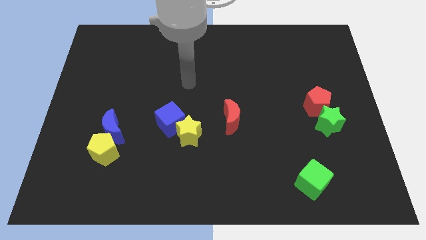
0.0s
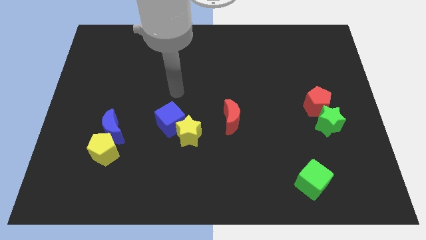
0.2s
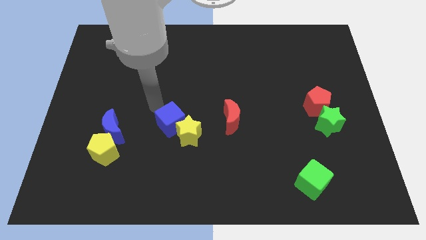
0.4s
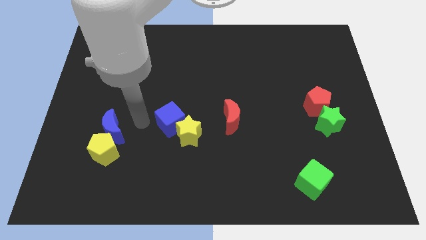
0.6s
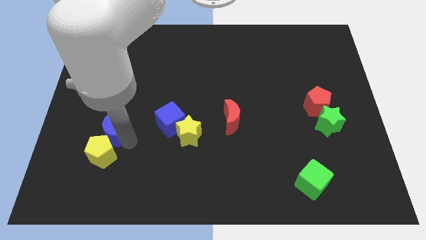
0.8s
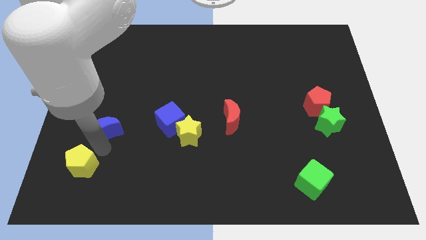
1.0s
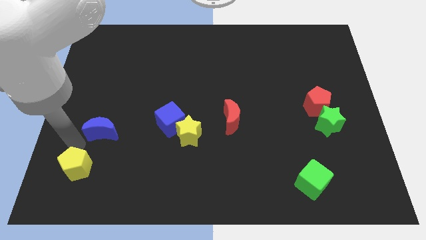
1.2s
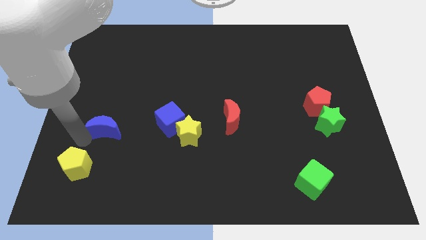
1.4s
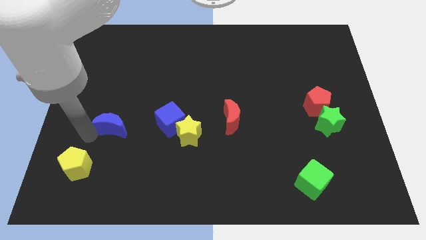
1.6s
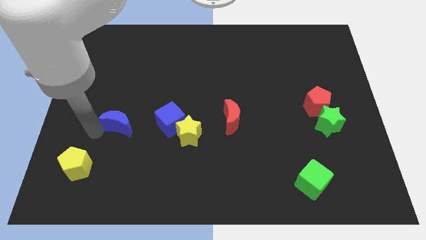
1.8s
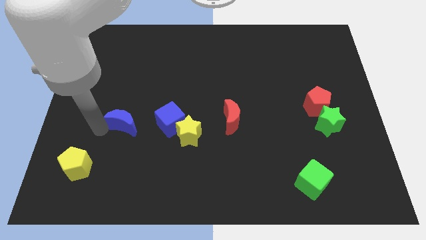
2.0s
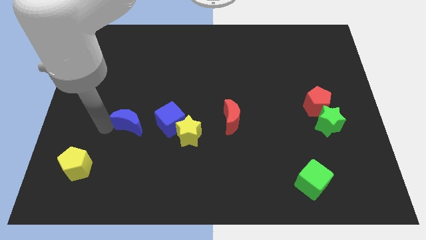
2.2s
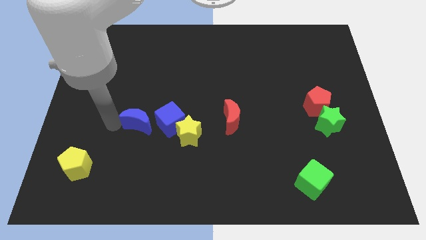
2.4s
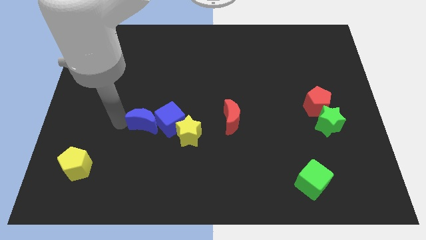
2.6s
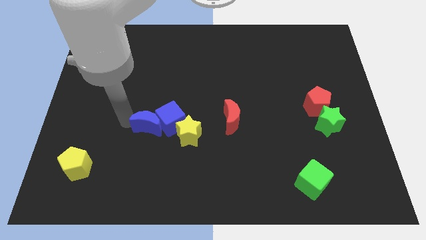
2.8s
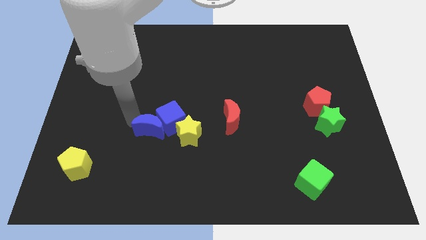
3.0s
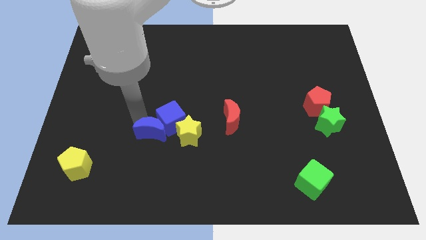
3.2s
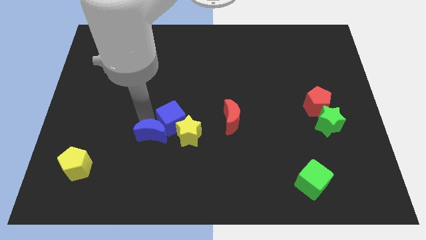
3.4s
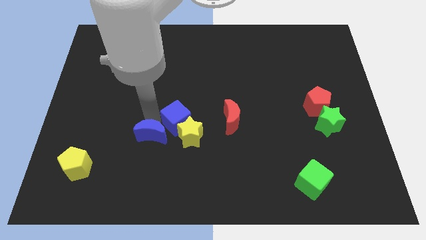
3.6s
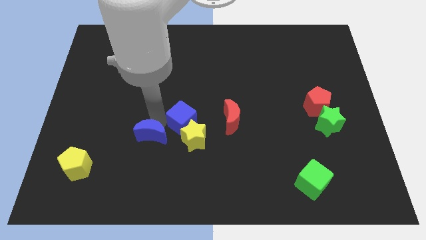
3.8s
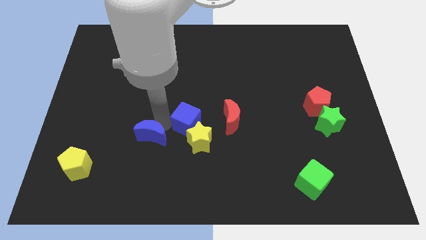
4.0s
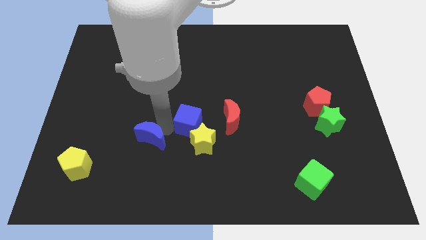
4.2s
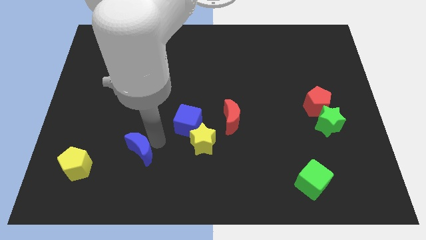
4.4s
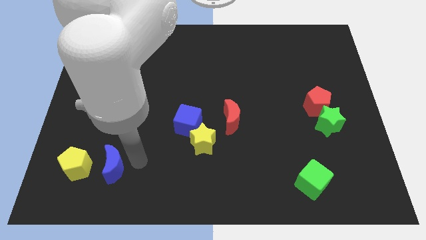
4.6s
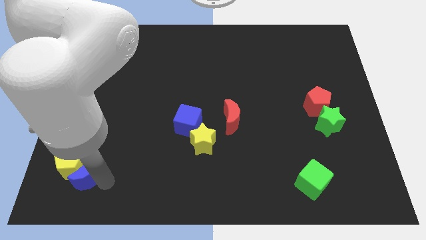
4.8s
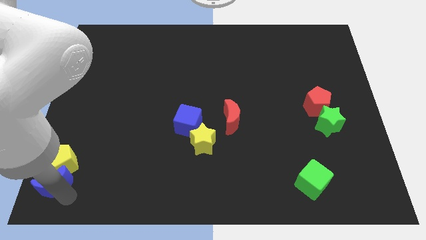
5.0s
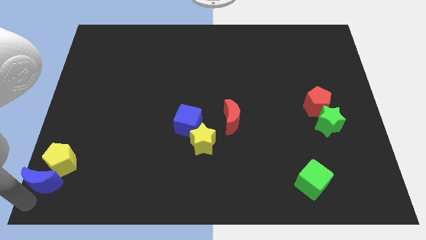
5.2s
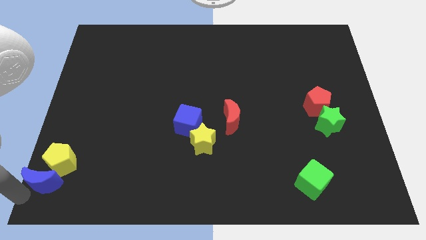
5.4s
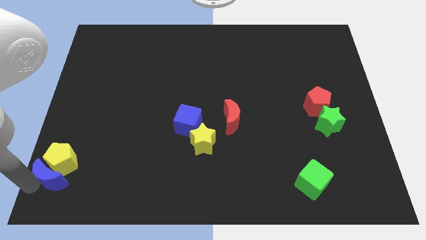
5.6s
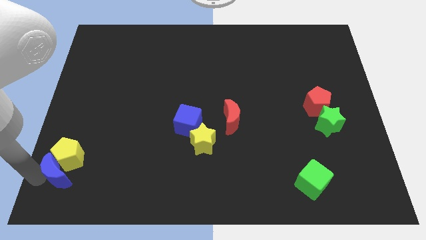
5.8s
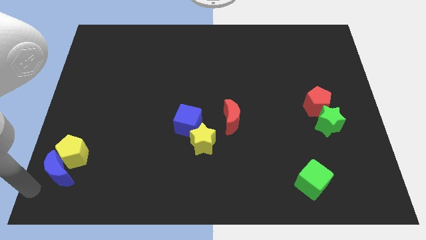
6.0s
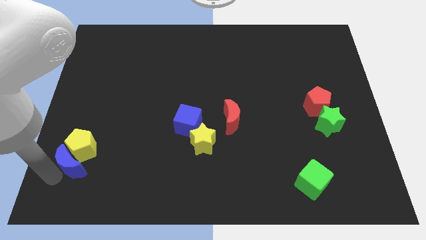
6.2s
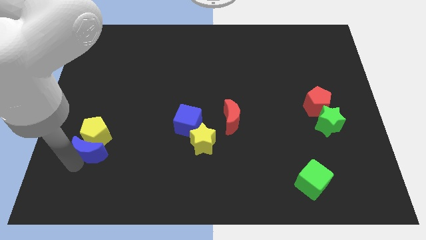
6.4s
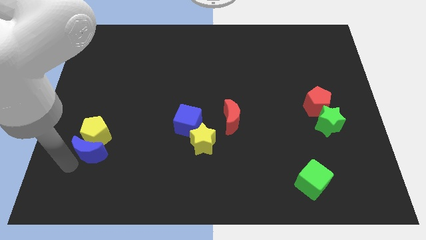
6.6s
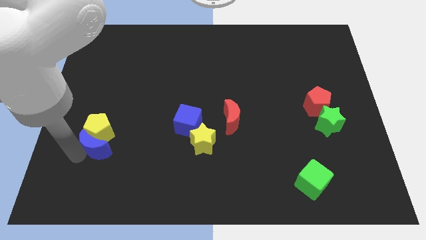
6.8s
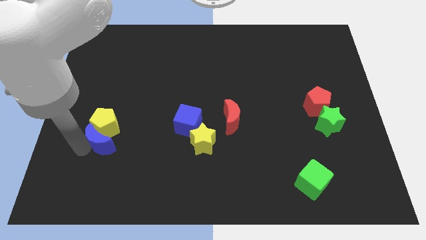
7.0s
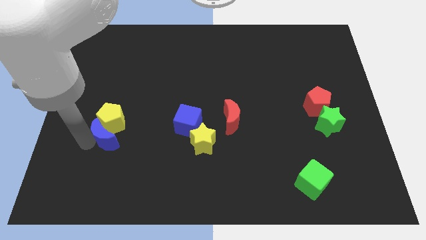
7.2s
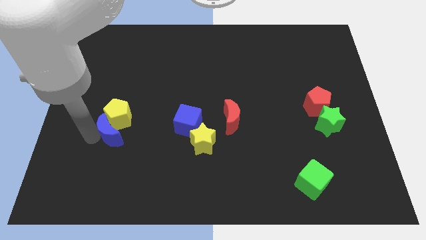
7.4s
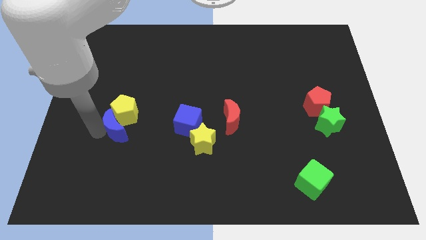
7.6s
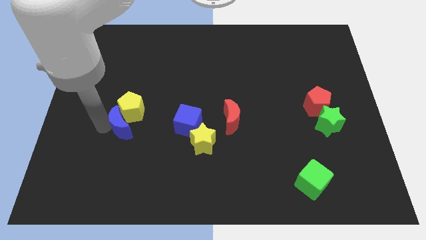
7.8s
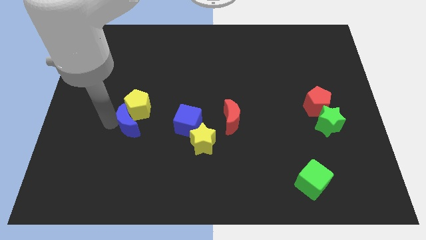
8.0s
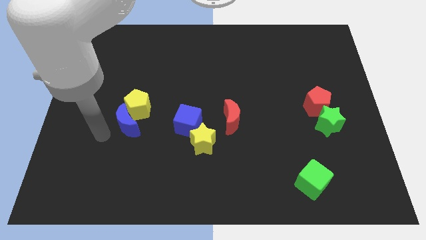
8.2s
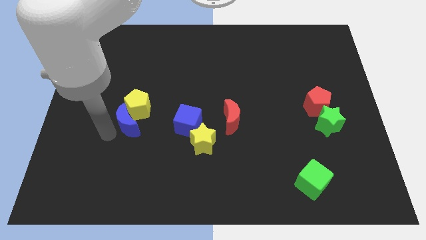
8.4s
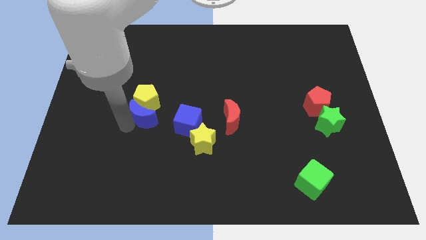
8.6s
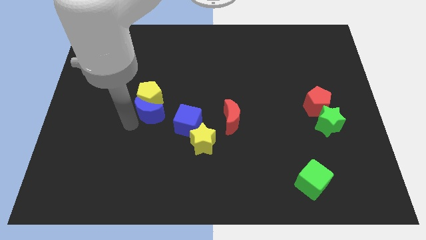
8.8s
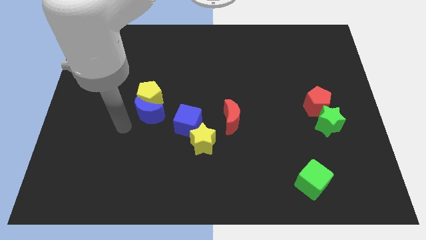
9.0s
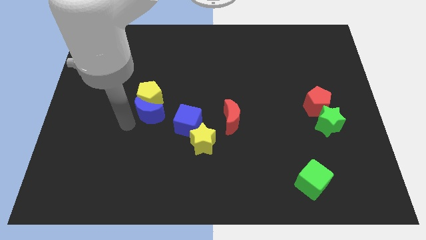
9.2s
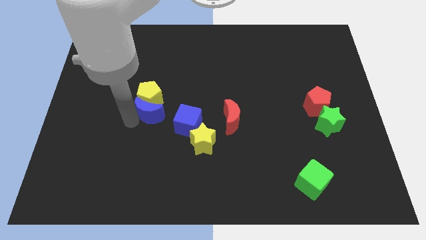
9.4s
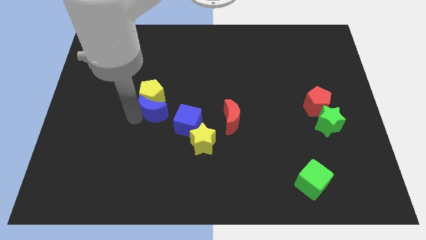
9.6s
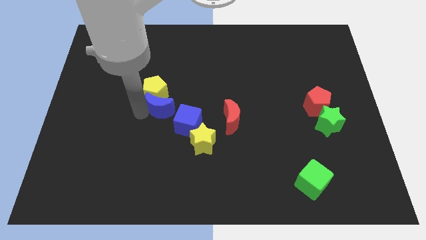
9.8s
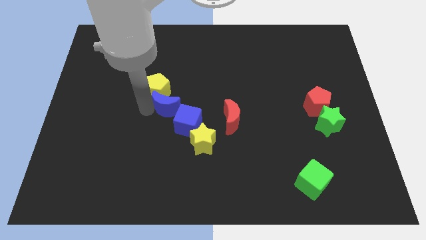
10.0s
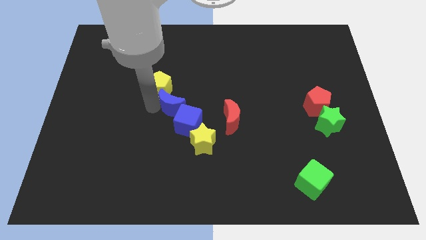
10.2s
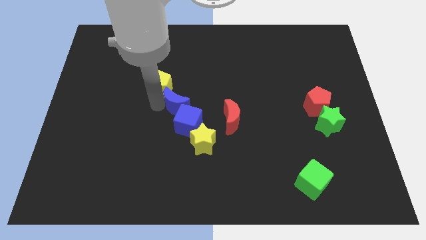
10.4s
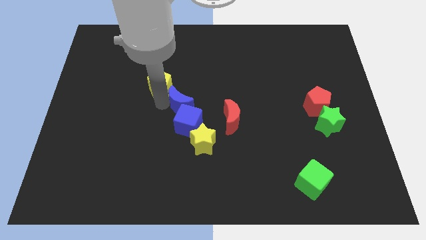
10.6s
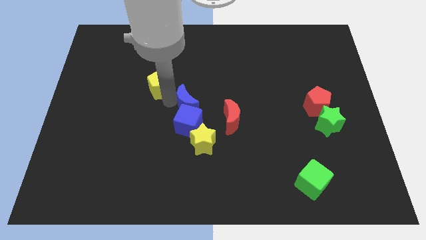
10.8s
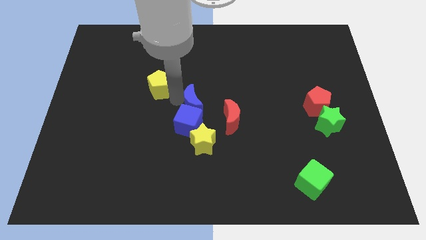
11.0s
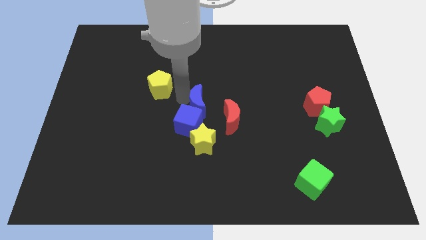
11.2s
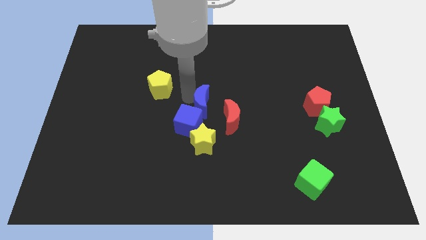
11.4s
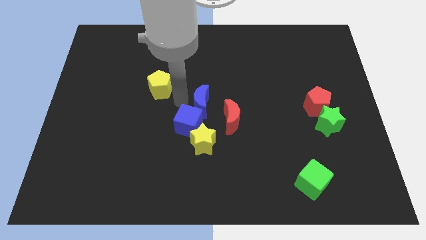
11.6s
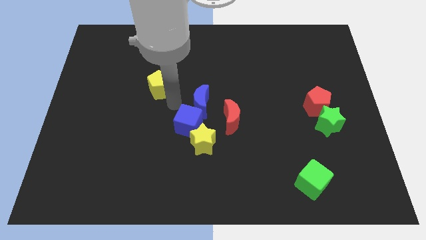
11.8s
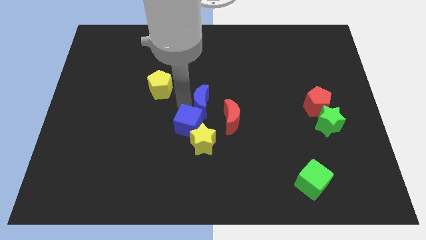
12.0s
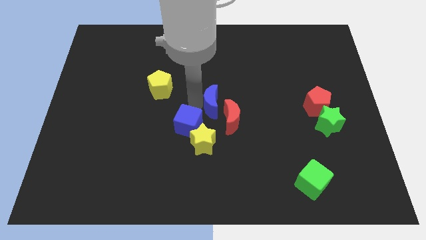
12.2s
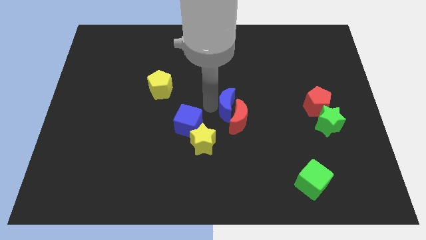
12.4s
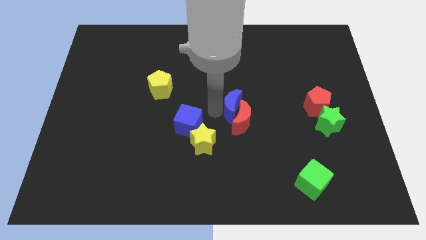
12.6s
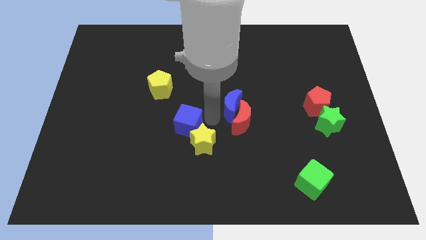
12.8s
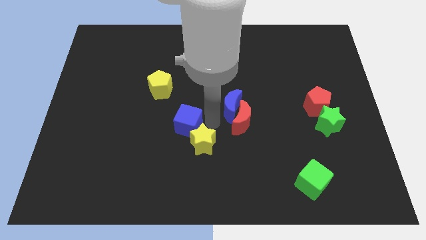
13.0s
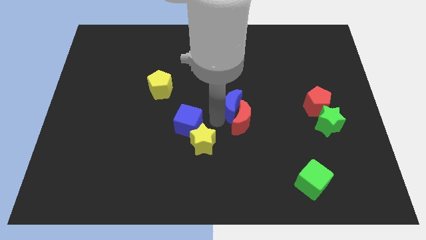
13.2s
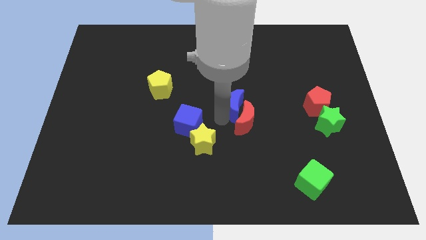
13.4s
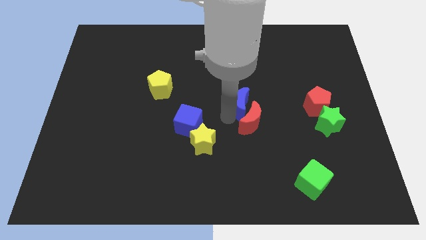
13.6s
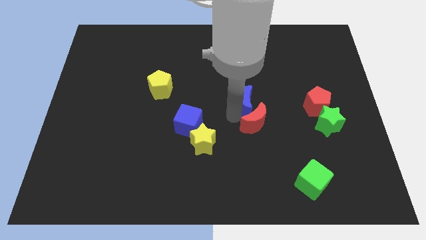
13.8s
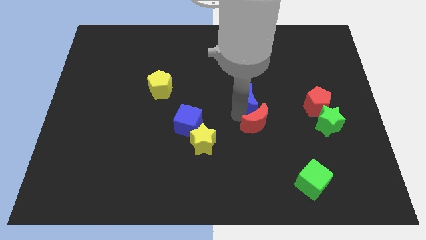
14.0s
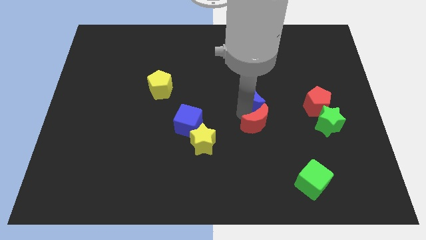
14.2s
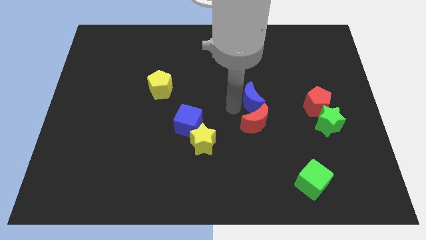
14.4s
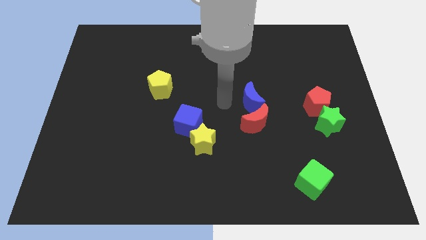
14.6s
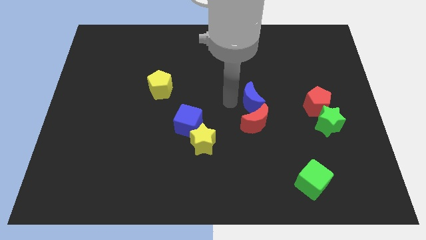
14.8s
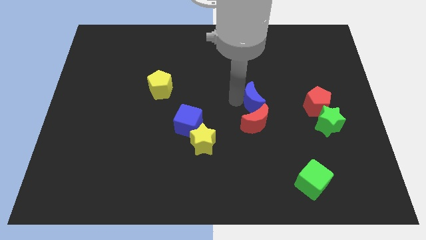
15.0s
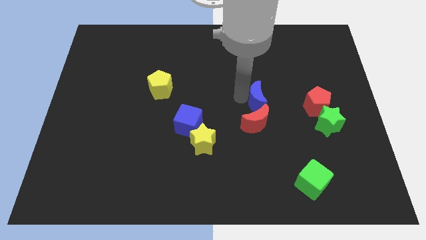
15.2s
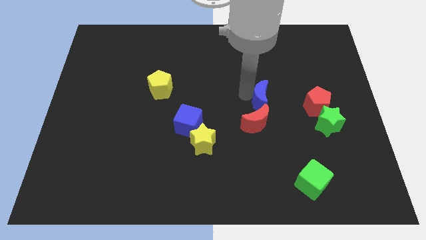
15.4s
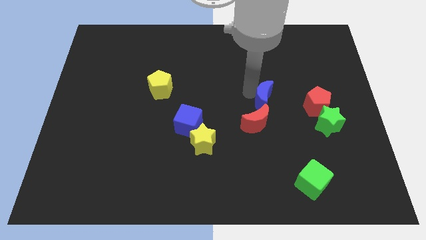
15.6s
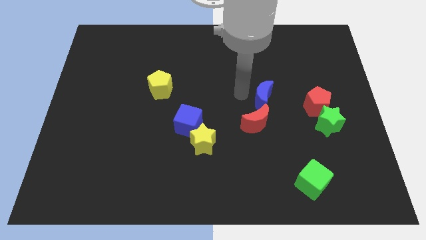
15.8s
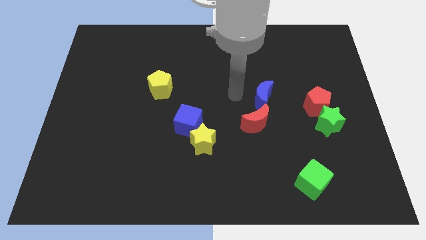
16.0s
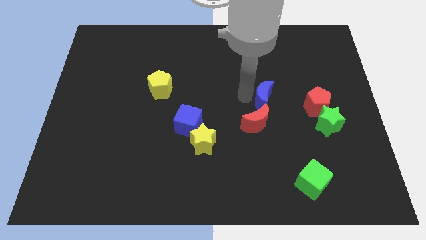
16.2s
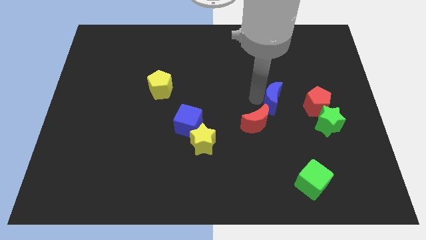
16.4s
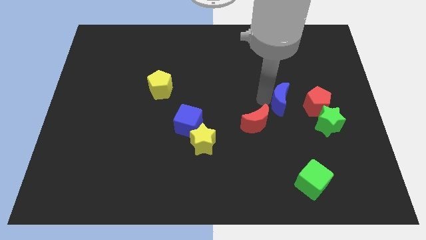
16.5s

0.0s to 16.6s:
move the blue moon to the top left side of the green star
